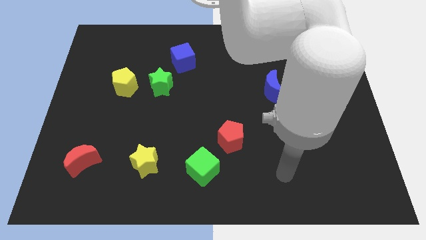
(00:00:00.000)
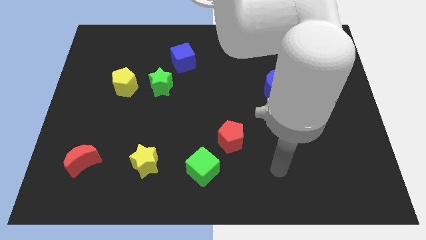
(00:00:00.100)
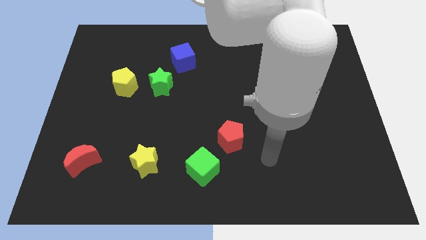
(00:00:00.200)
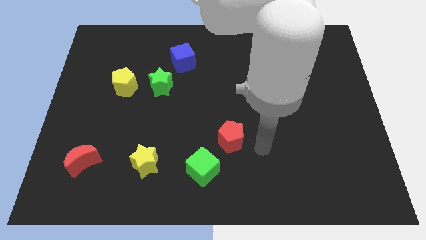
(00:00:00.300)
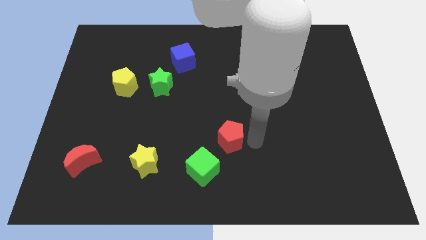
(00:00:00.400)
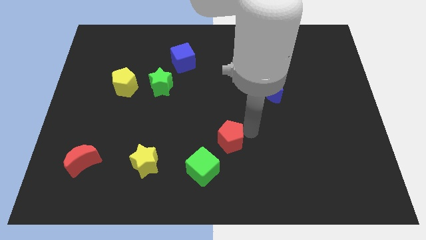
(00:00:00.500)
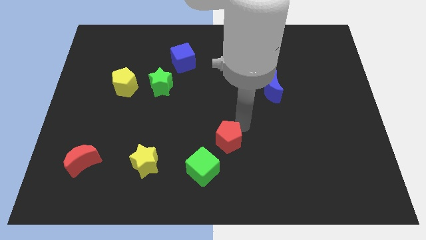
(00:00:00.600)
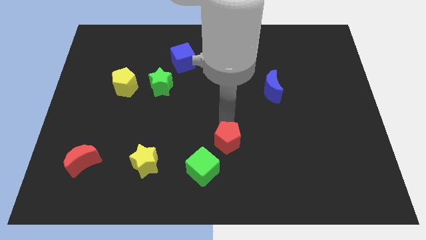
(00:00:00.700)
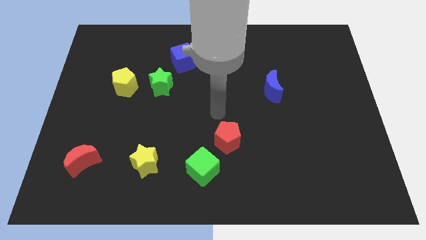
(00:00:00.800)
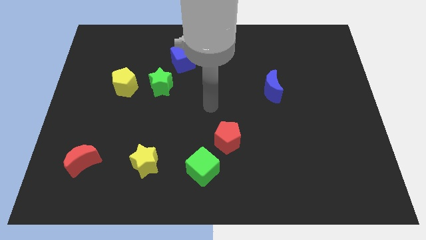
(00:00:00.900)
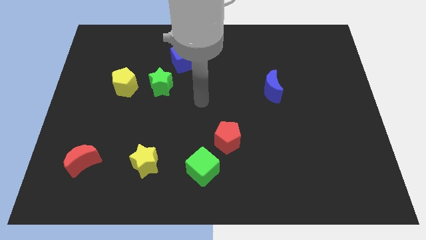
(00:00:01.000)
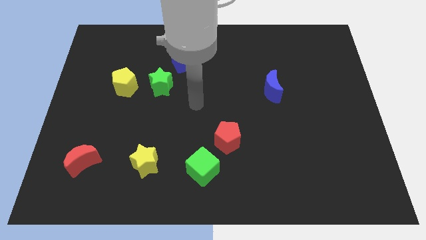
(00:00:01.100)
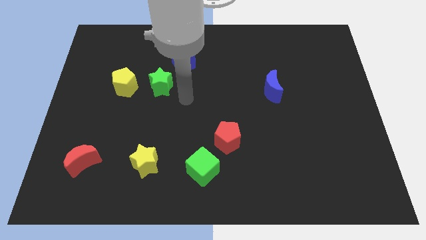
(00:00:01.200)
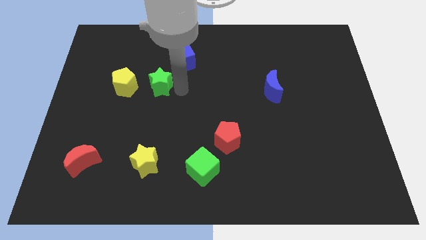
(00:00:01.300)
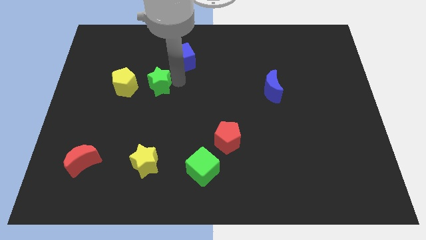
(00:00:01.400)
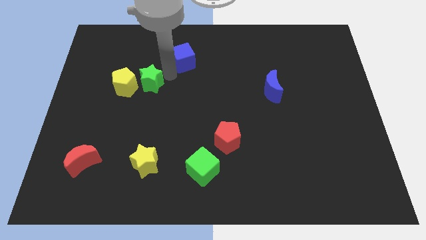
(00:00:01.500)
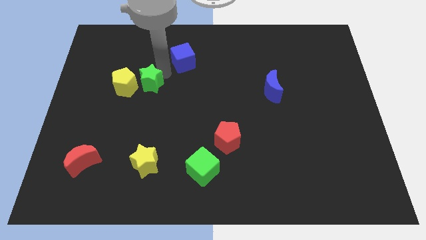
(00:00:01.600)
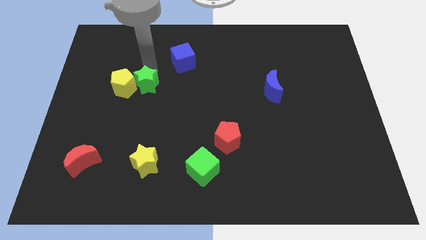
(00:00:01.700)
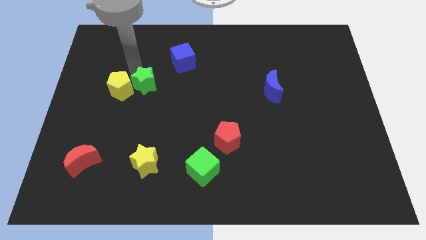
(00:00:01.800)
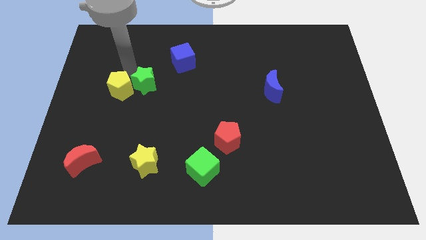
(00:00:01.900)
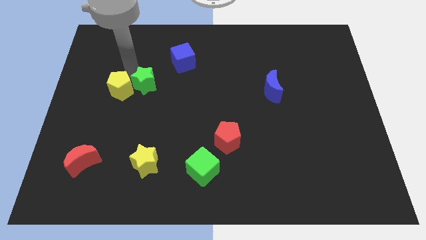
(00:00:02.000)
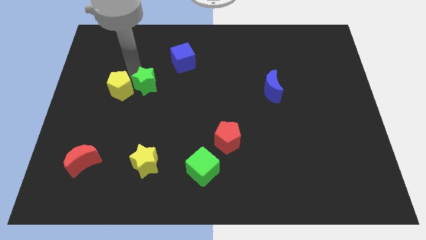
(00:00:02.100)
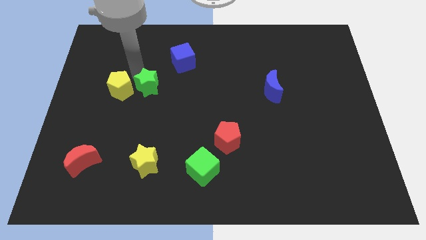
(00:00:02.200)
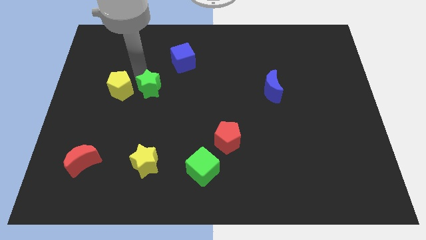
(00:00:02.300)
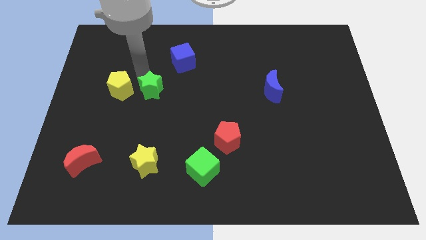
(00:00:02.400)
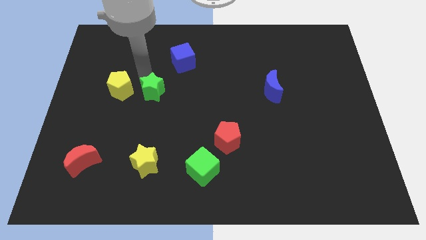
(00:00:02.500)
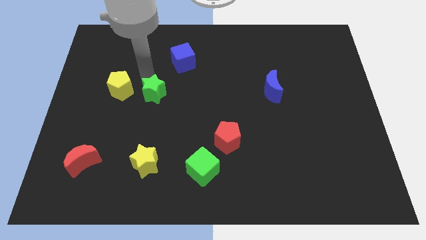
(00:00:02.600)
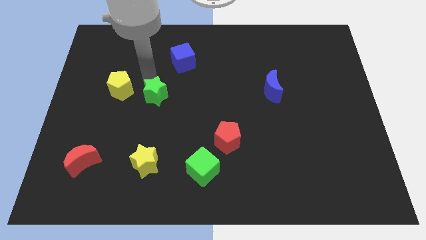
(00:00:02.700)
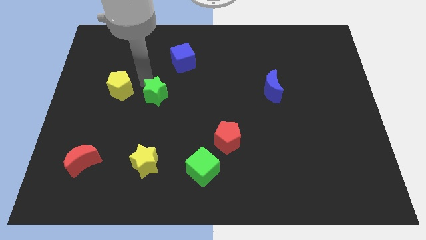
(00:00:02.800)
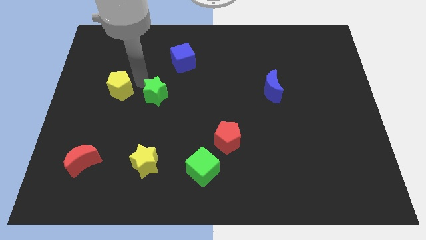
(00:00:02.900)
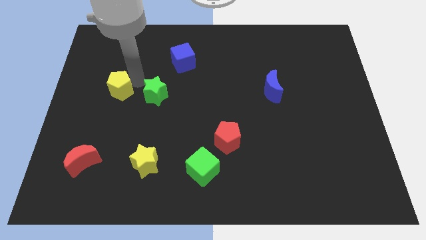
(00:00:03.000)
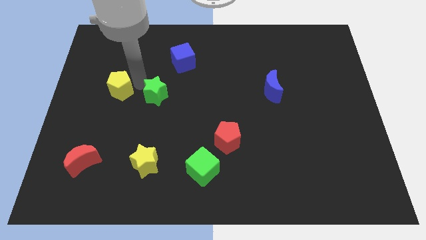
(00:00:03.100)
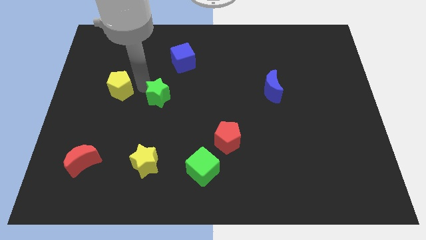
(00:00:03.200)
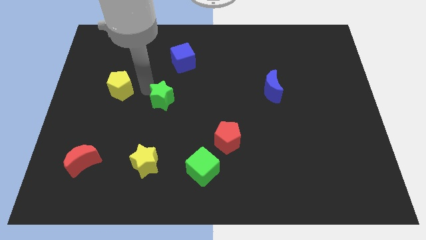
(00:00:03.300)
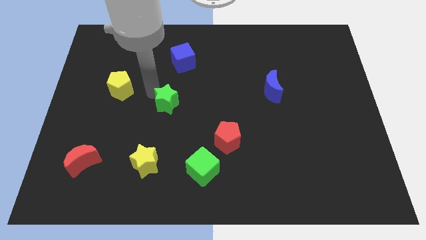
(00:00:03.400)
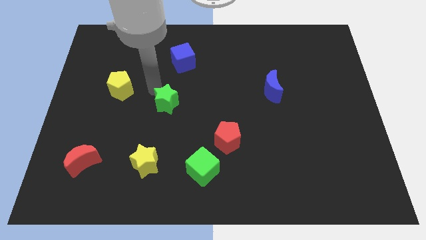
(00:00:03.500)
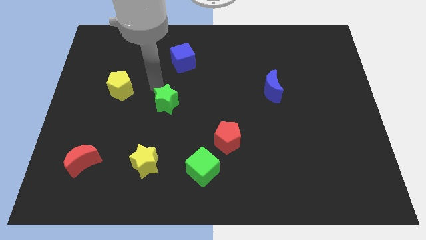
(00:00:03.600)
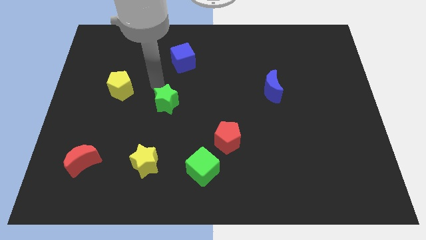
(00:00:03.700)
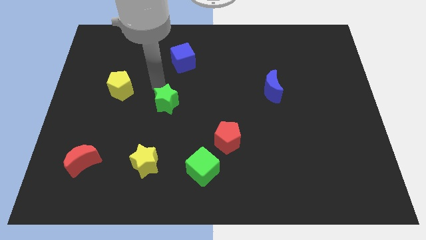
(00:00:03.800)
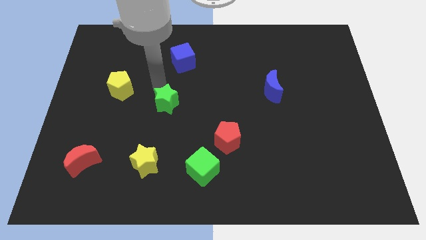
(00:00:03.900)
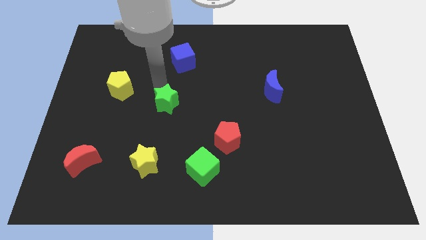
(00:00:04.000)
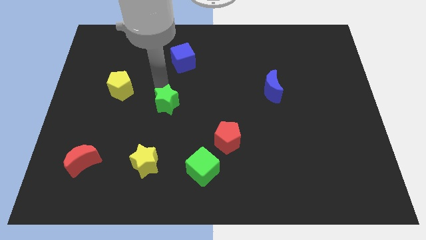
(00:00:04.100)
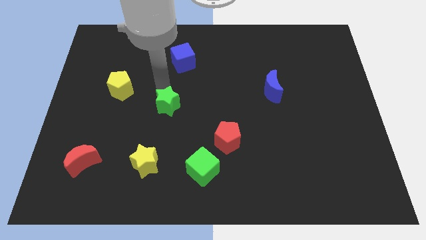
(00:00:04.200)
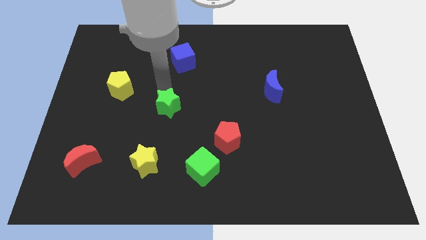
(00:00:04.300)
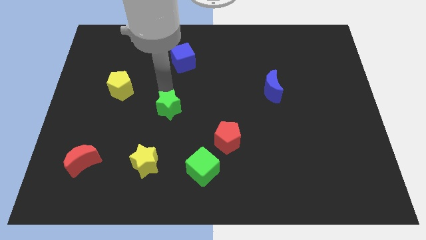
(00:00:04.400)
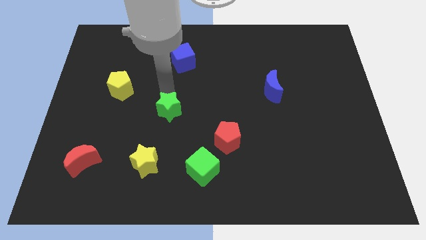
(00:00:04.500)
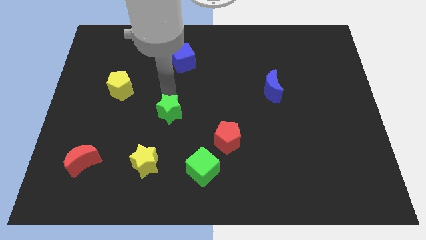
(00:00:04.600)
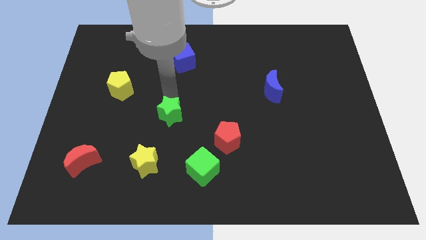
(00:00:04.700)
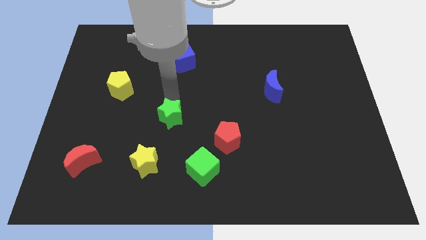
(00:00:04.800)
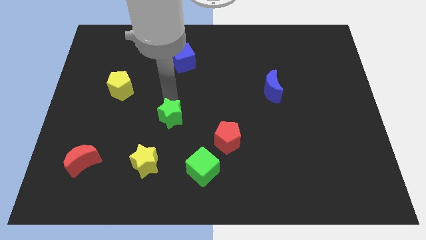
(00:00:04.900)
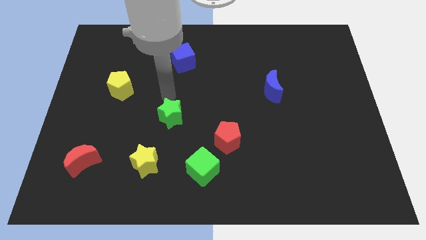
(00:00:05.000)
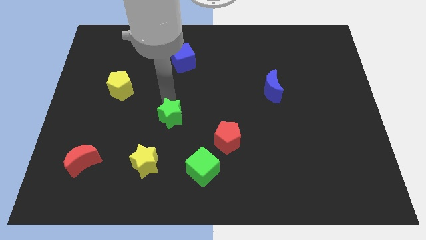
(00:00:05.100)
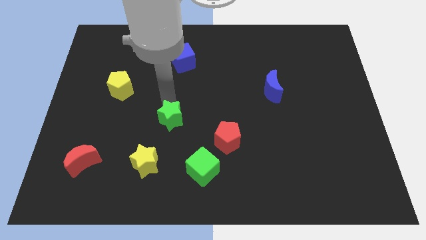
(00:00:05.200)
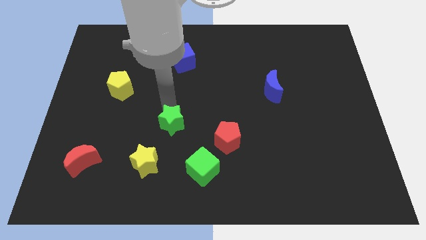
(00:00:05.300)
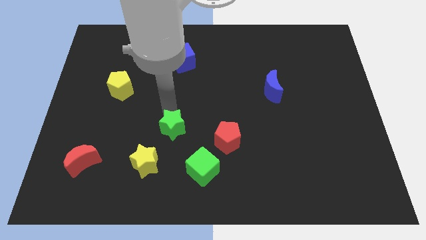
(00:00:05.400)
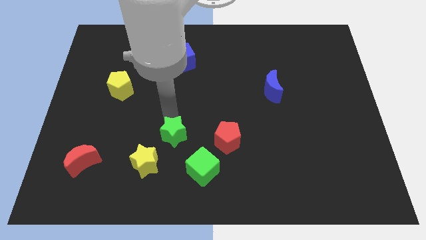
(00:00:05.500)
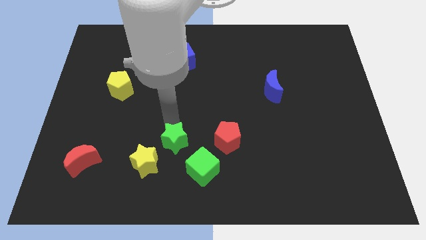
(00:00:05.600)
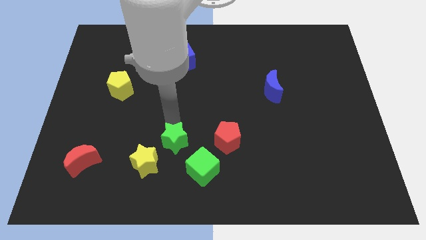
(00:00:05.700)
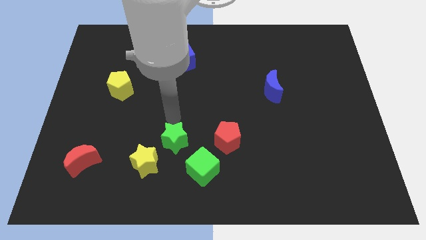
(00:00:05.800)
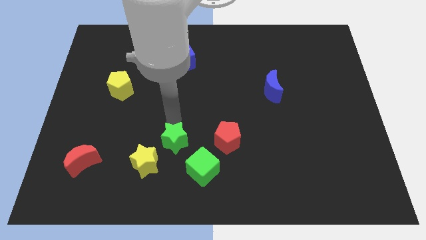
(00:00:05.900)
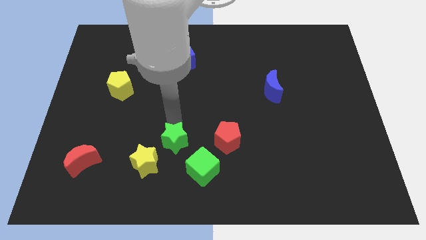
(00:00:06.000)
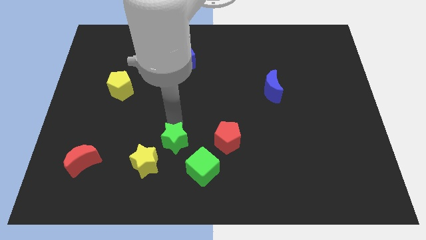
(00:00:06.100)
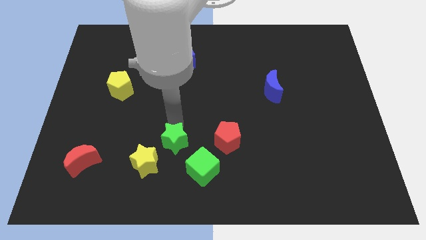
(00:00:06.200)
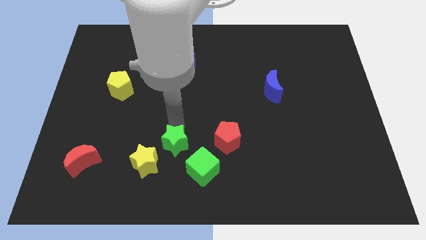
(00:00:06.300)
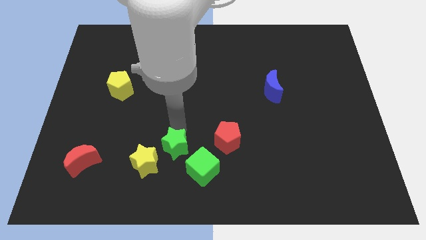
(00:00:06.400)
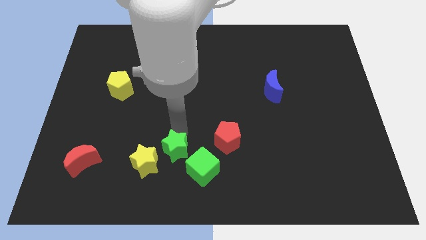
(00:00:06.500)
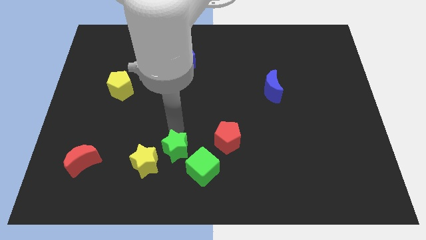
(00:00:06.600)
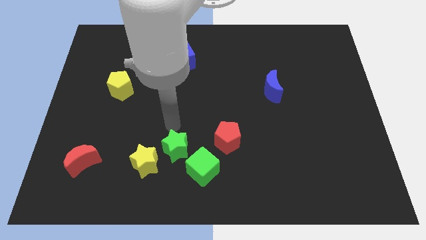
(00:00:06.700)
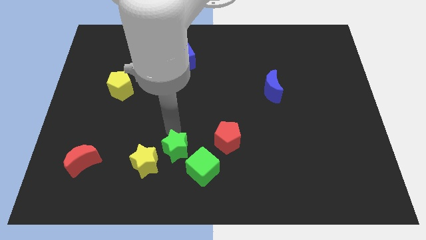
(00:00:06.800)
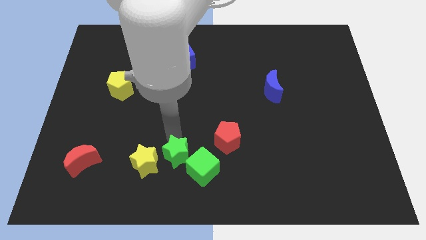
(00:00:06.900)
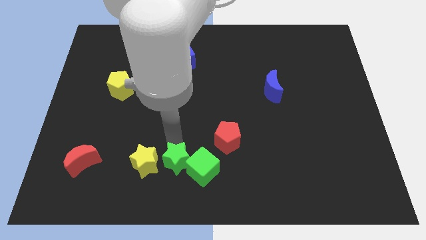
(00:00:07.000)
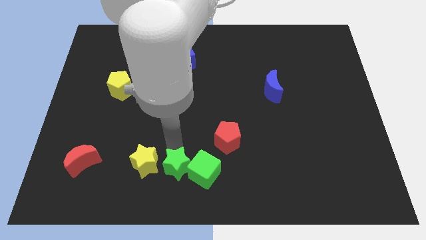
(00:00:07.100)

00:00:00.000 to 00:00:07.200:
put the green star to the bottom side
